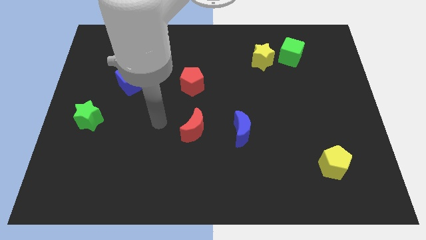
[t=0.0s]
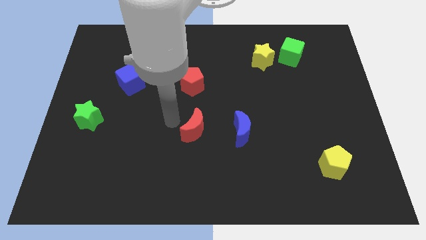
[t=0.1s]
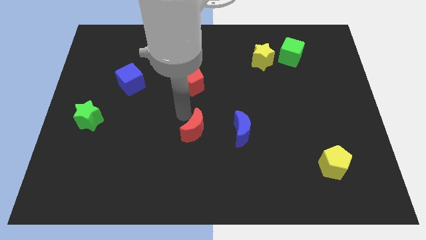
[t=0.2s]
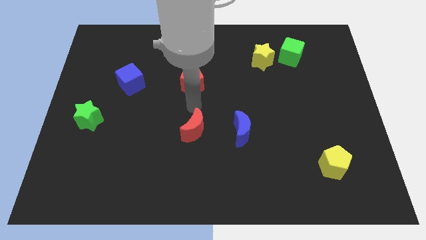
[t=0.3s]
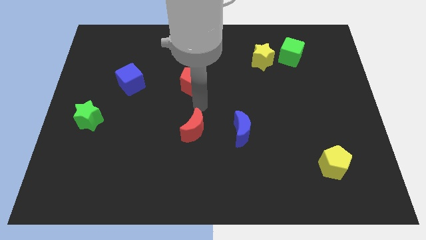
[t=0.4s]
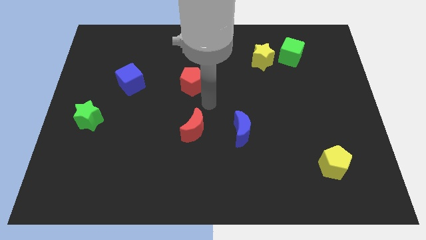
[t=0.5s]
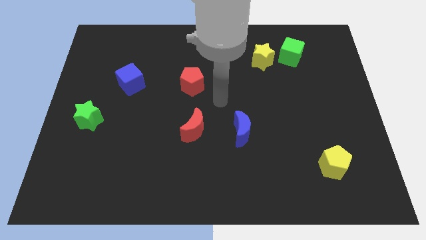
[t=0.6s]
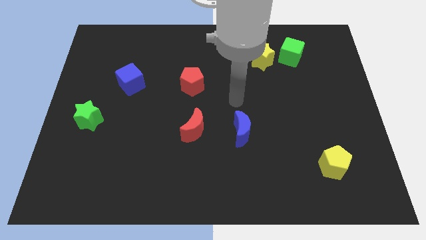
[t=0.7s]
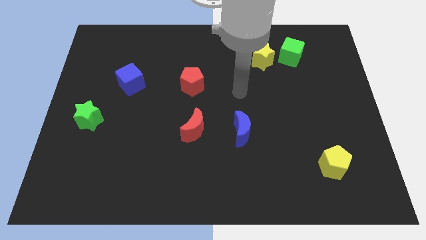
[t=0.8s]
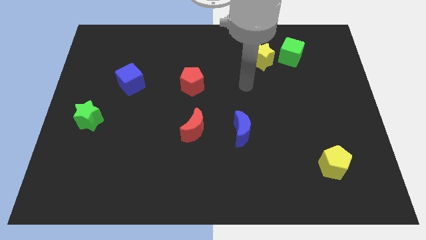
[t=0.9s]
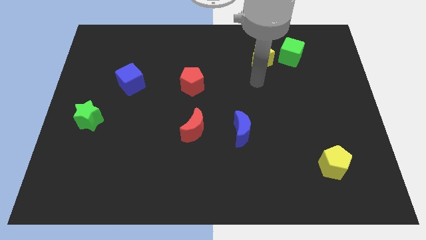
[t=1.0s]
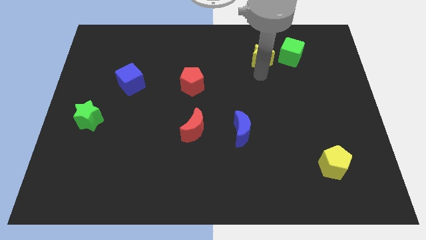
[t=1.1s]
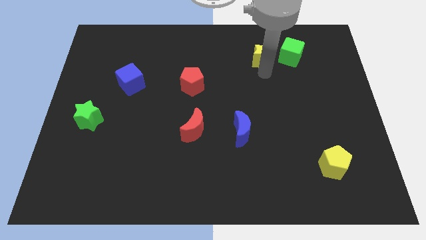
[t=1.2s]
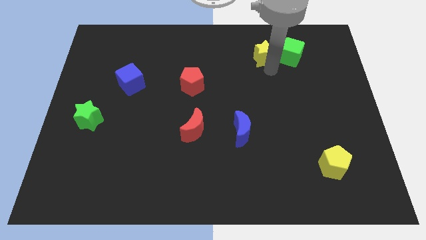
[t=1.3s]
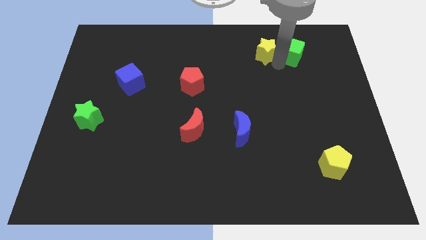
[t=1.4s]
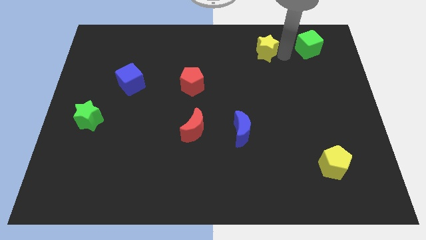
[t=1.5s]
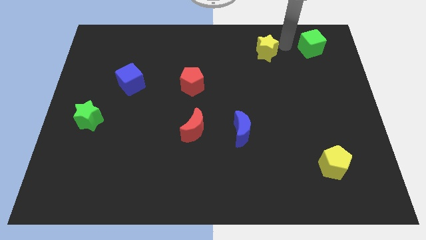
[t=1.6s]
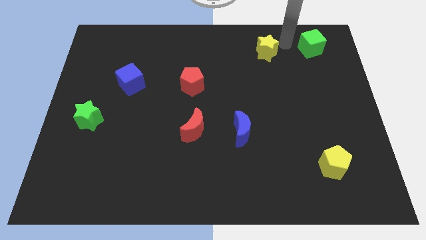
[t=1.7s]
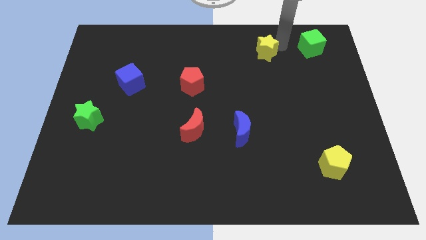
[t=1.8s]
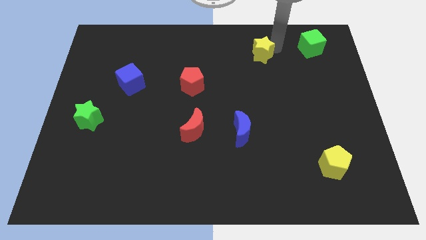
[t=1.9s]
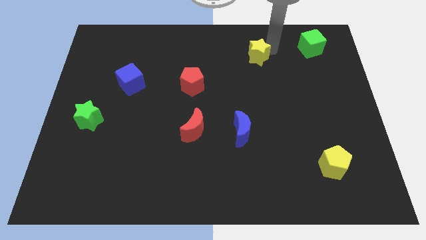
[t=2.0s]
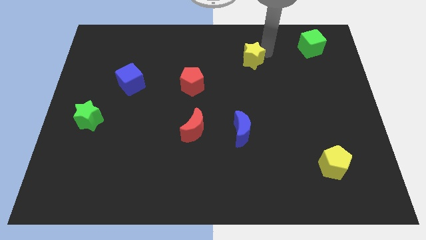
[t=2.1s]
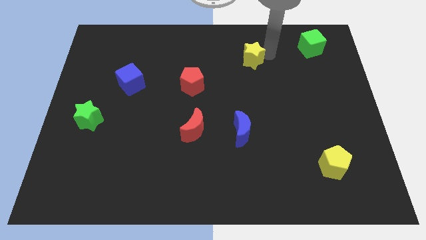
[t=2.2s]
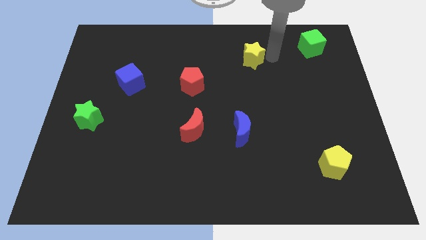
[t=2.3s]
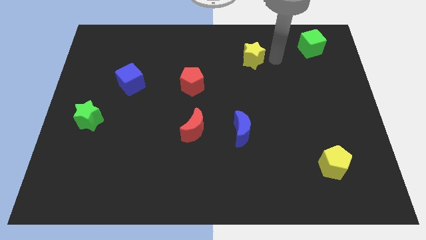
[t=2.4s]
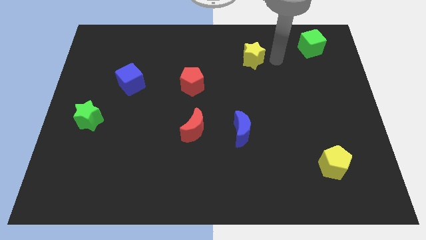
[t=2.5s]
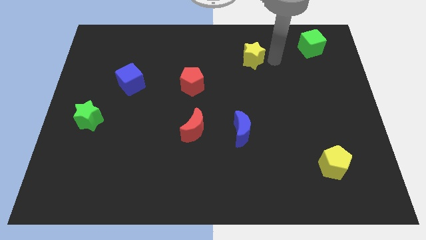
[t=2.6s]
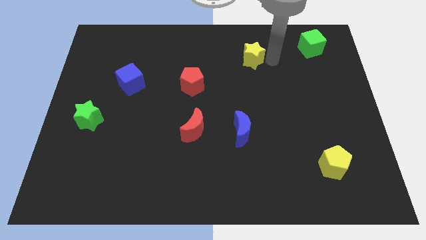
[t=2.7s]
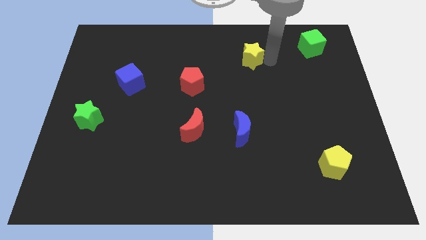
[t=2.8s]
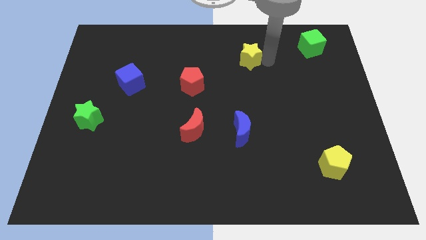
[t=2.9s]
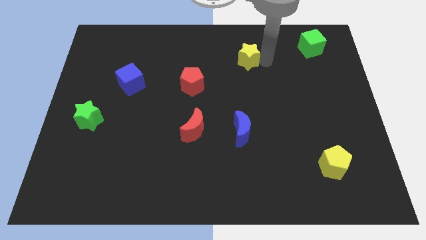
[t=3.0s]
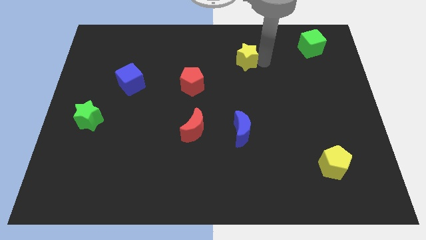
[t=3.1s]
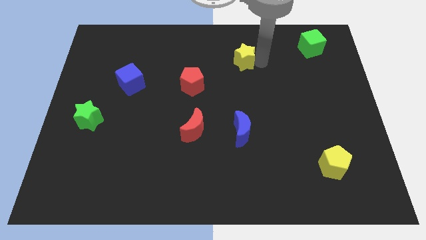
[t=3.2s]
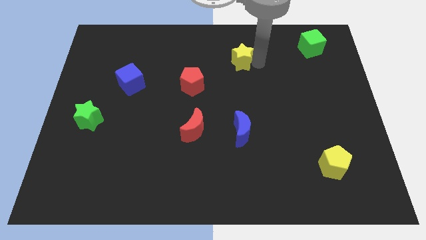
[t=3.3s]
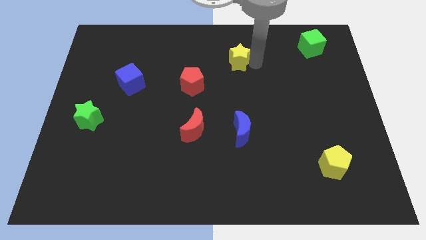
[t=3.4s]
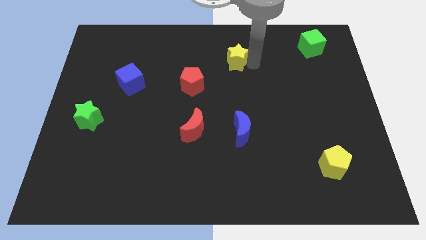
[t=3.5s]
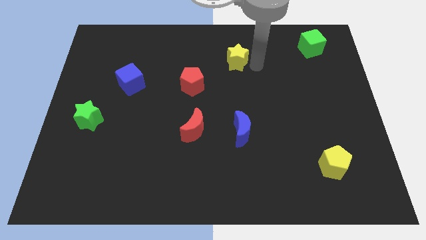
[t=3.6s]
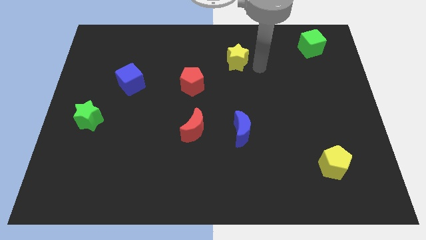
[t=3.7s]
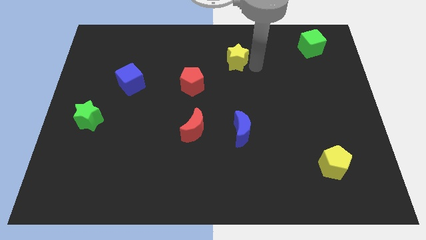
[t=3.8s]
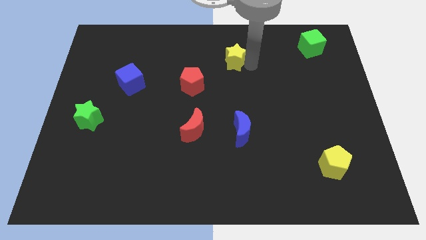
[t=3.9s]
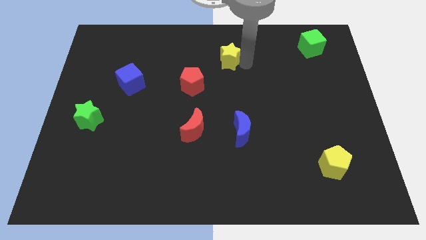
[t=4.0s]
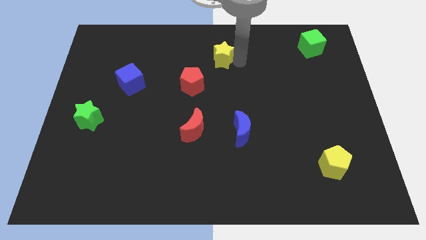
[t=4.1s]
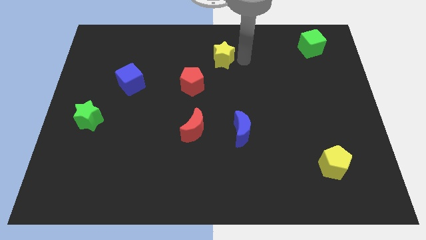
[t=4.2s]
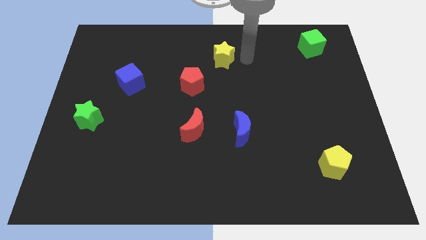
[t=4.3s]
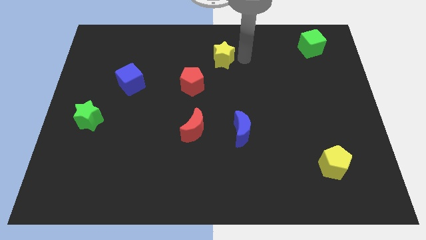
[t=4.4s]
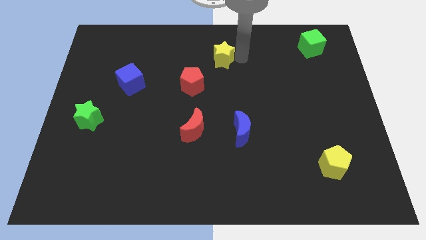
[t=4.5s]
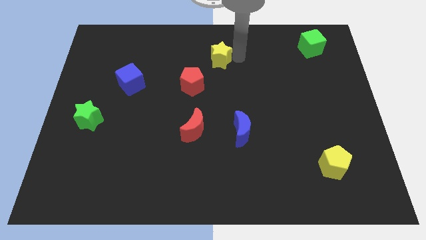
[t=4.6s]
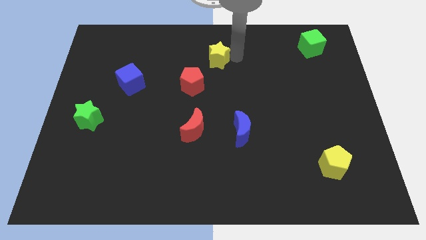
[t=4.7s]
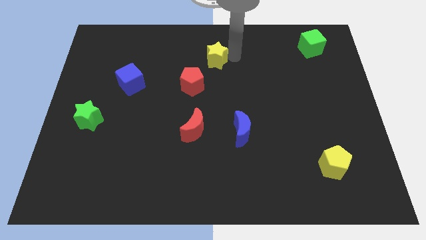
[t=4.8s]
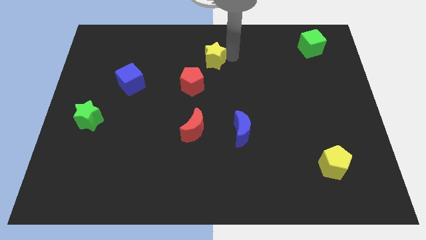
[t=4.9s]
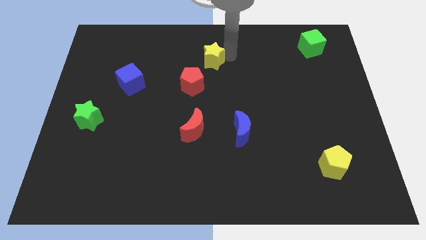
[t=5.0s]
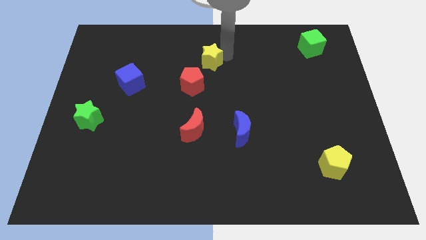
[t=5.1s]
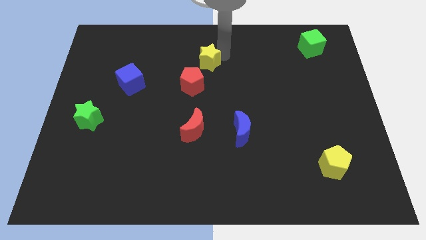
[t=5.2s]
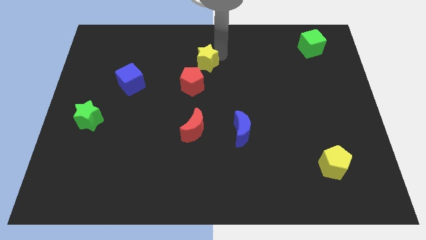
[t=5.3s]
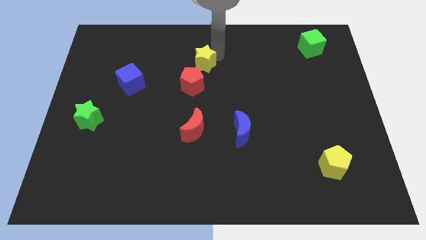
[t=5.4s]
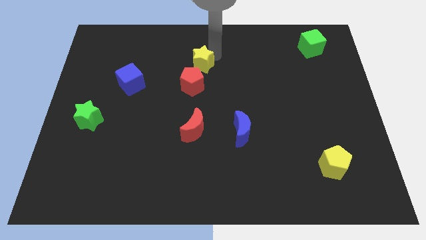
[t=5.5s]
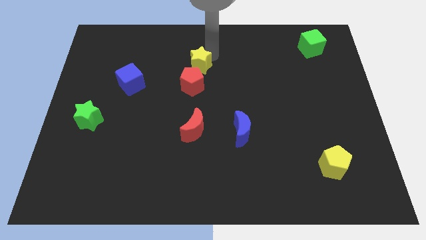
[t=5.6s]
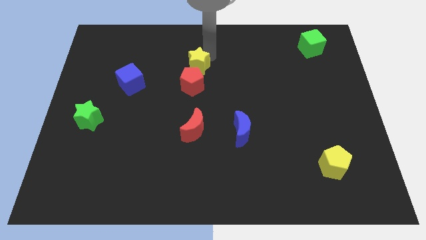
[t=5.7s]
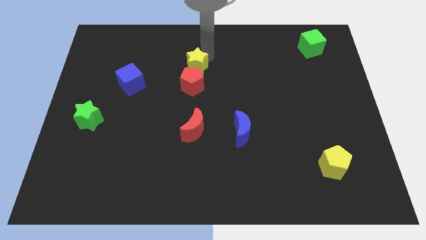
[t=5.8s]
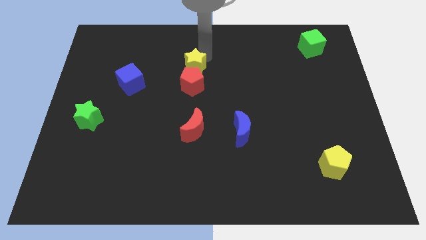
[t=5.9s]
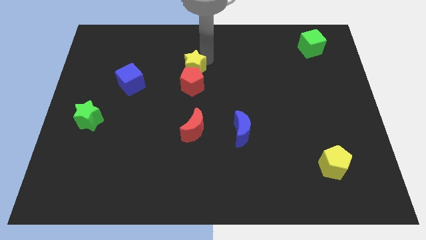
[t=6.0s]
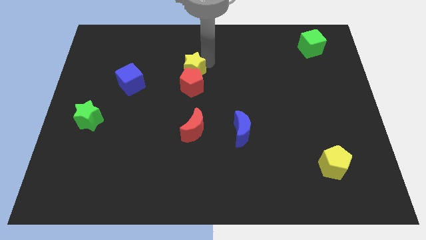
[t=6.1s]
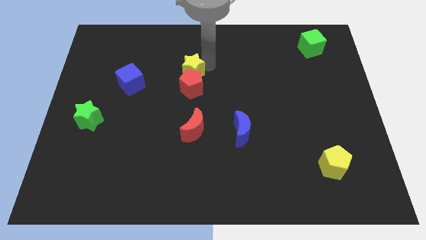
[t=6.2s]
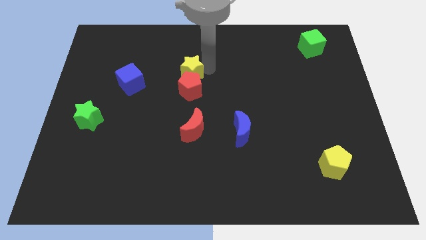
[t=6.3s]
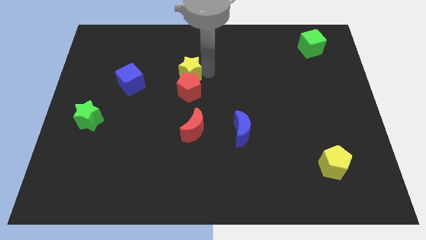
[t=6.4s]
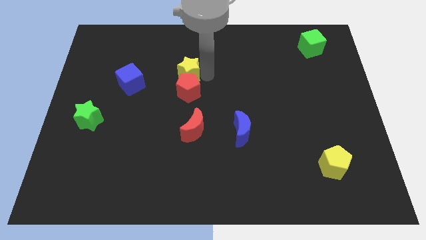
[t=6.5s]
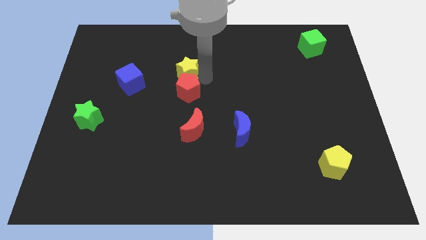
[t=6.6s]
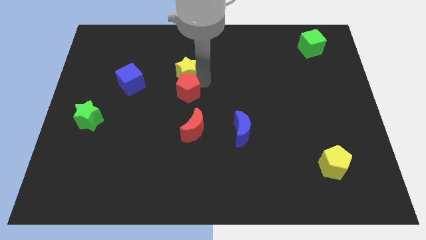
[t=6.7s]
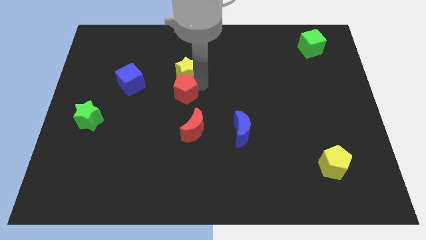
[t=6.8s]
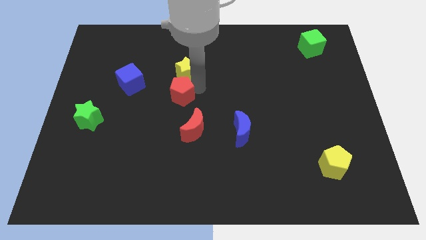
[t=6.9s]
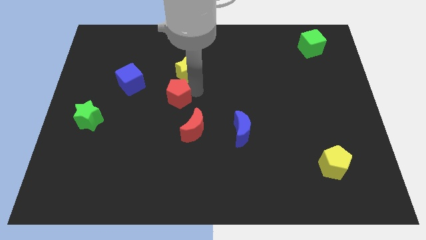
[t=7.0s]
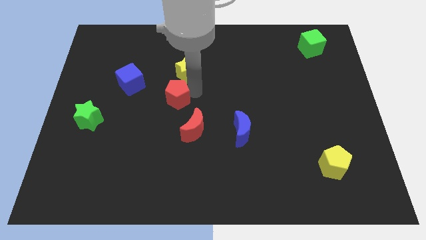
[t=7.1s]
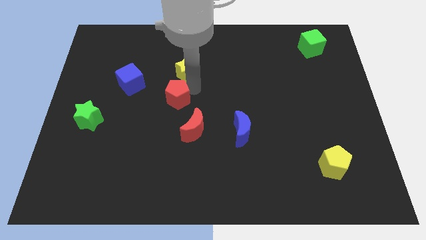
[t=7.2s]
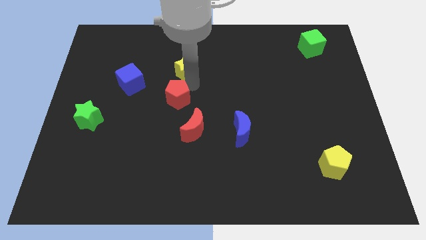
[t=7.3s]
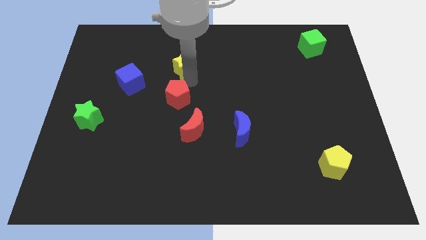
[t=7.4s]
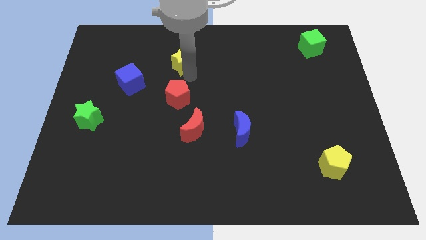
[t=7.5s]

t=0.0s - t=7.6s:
move the yellow star to the left

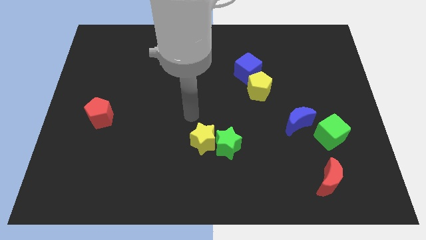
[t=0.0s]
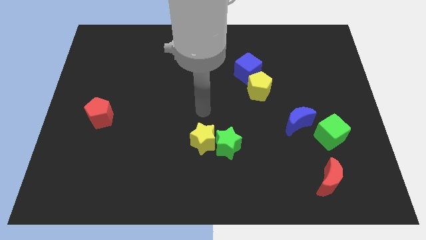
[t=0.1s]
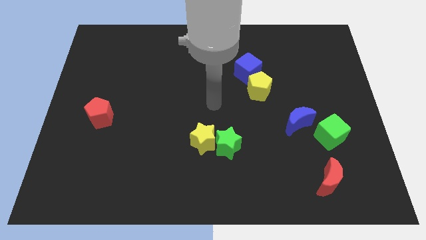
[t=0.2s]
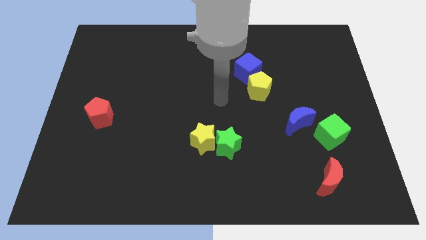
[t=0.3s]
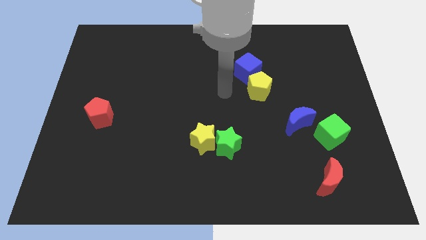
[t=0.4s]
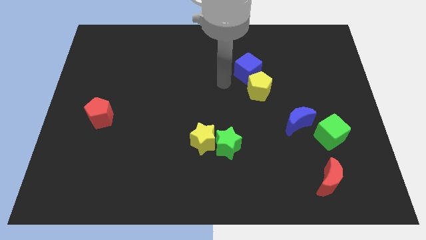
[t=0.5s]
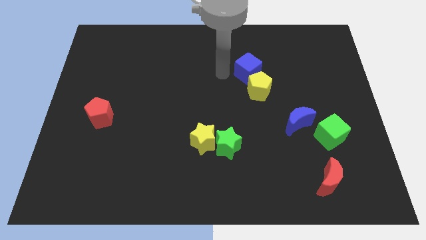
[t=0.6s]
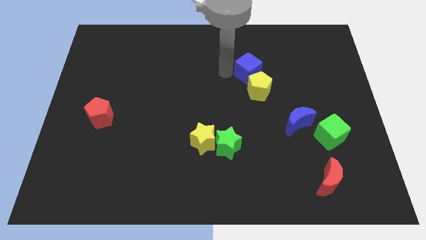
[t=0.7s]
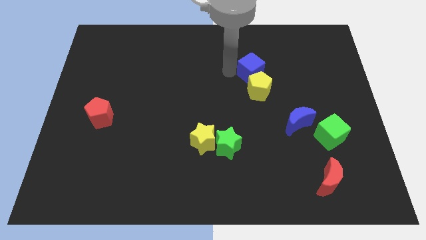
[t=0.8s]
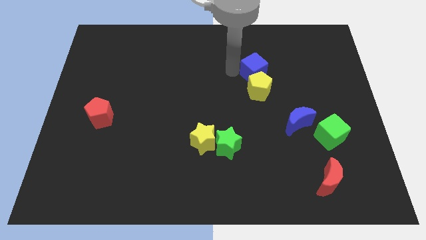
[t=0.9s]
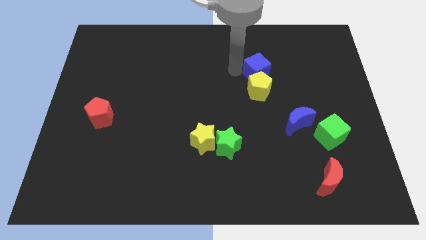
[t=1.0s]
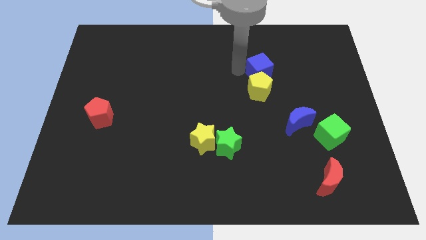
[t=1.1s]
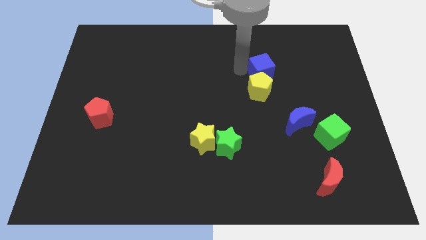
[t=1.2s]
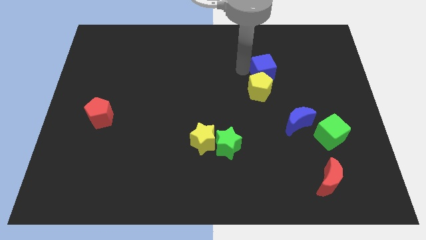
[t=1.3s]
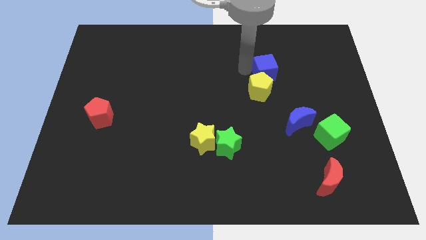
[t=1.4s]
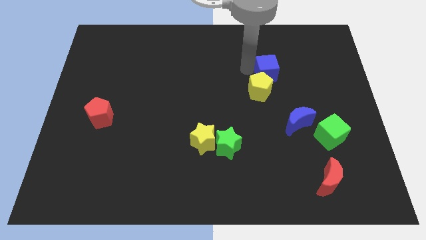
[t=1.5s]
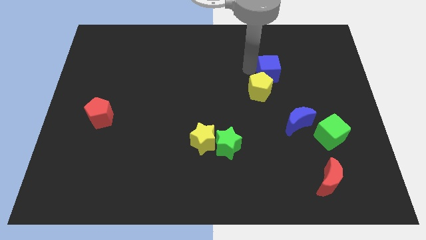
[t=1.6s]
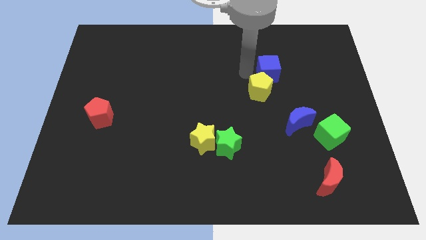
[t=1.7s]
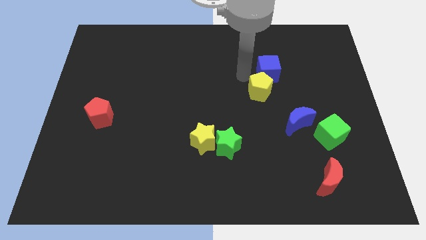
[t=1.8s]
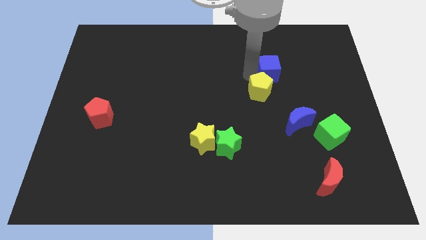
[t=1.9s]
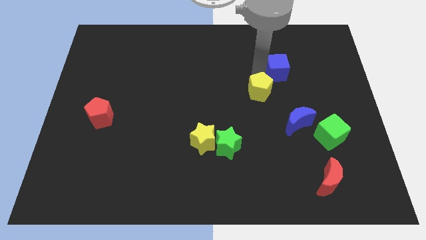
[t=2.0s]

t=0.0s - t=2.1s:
slide the blue cube to the right slightly
